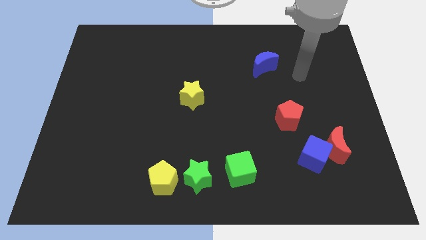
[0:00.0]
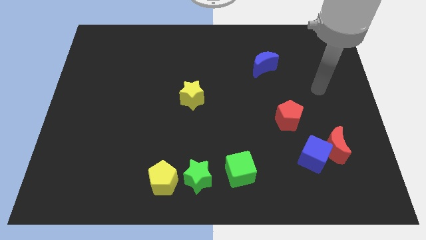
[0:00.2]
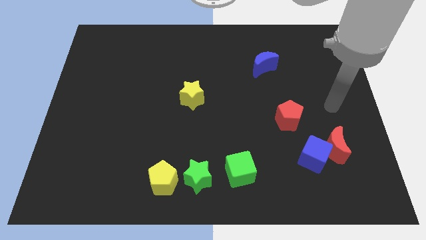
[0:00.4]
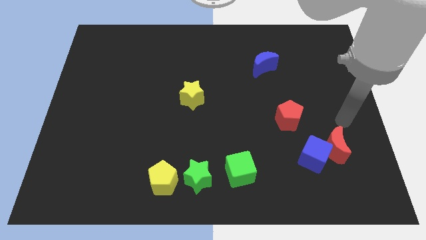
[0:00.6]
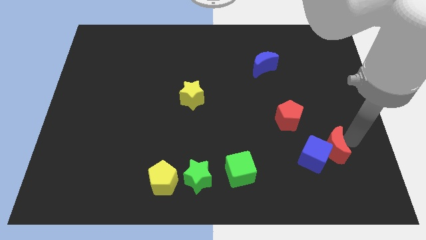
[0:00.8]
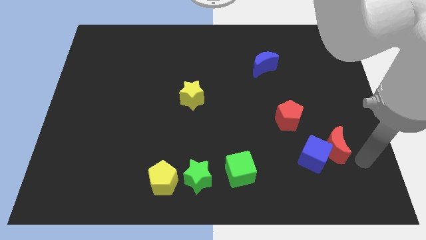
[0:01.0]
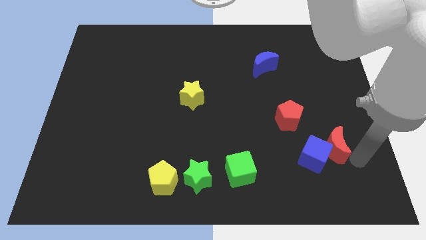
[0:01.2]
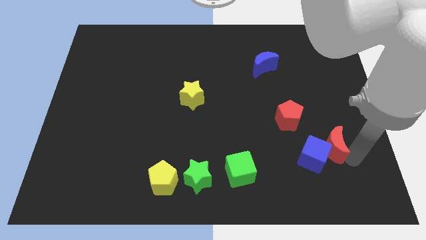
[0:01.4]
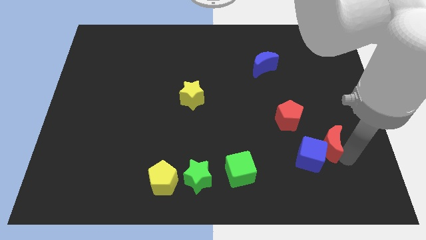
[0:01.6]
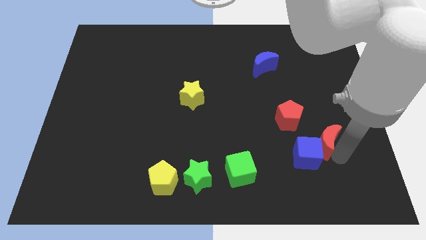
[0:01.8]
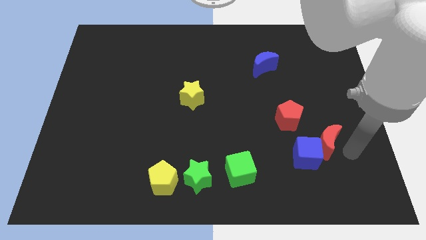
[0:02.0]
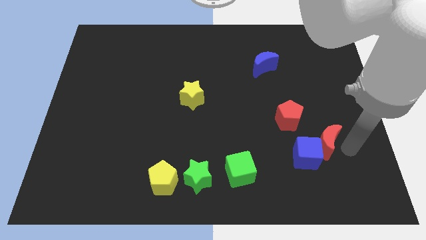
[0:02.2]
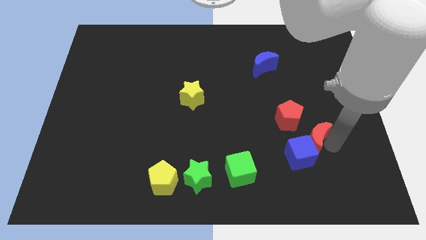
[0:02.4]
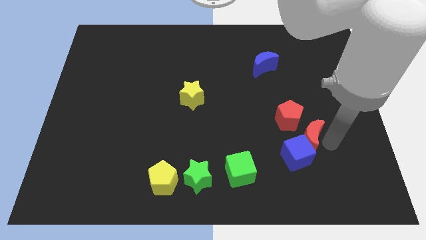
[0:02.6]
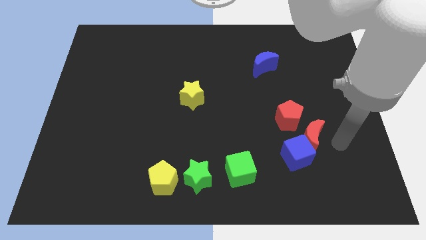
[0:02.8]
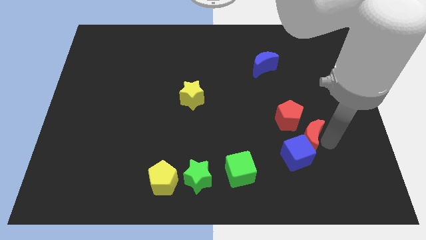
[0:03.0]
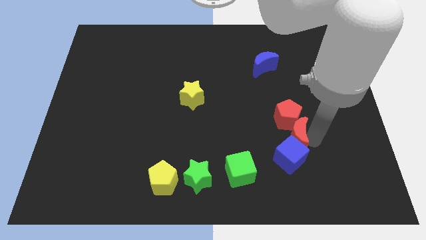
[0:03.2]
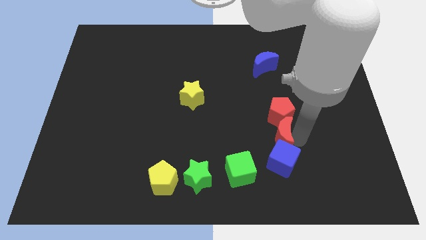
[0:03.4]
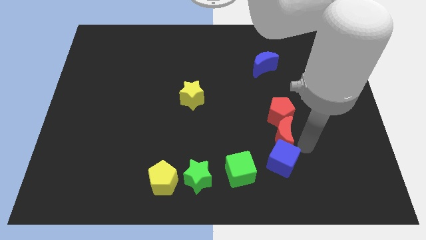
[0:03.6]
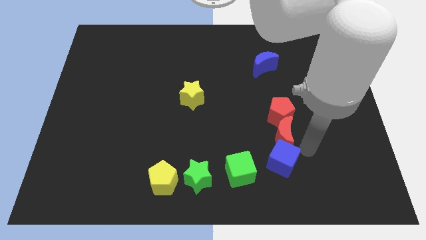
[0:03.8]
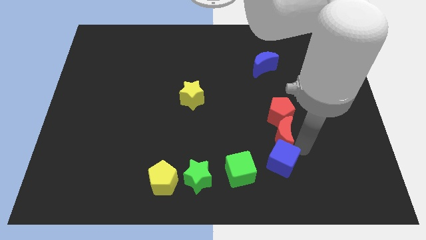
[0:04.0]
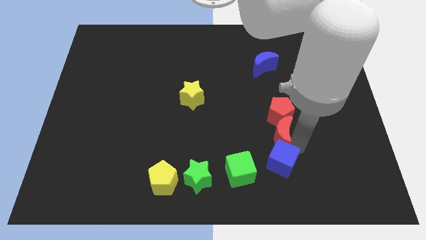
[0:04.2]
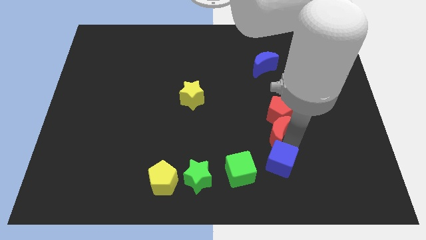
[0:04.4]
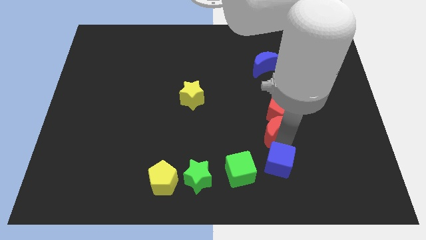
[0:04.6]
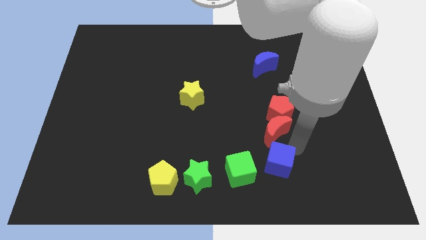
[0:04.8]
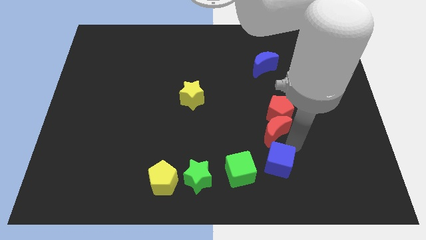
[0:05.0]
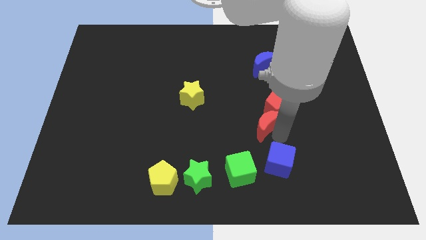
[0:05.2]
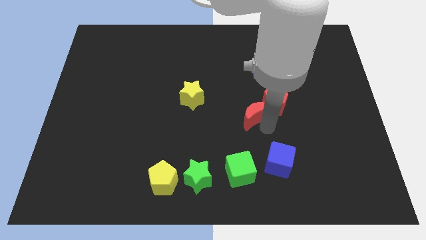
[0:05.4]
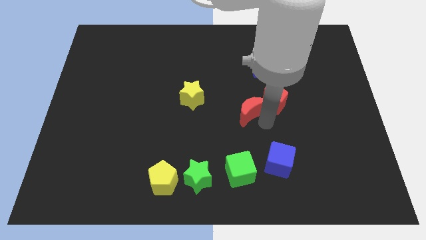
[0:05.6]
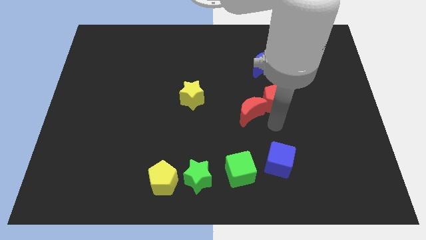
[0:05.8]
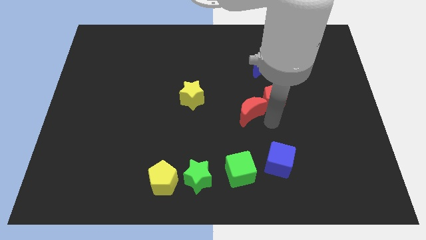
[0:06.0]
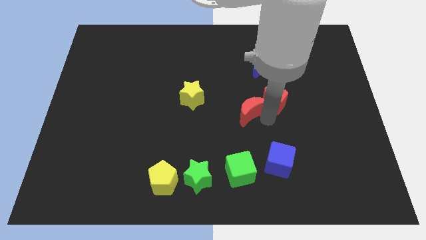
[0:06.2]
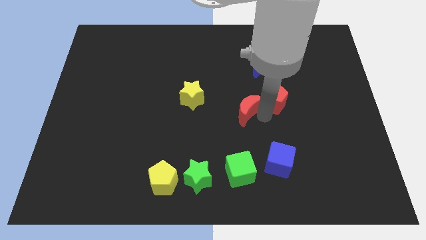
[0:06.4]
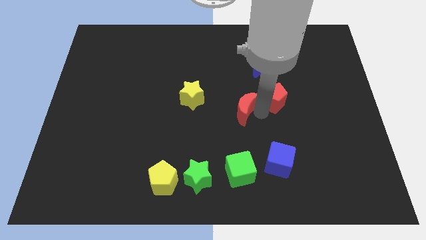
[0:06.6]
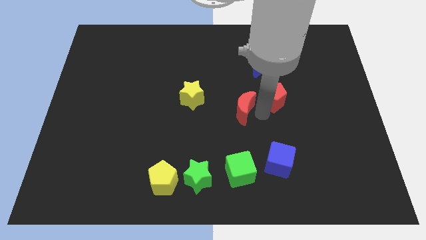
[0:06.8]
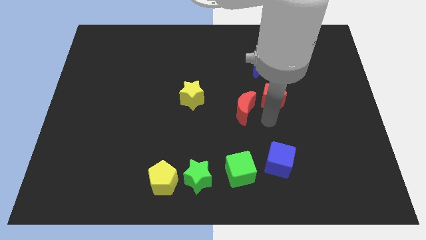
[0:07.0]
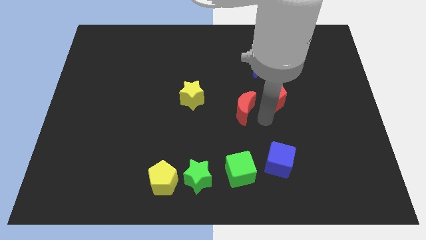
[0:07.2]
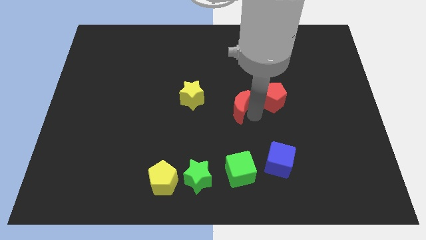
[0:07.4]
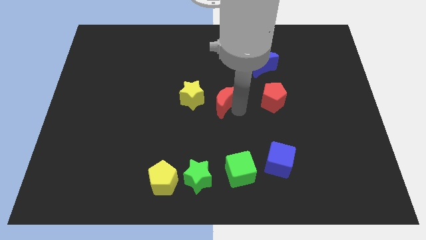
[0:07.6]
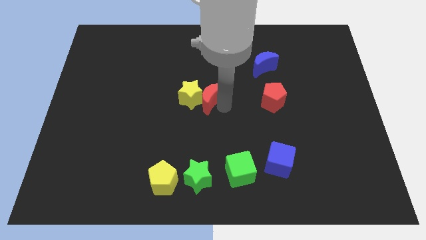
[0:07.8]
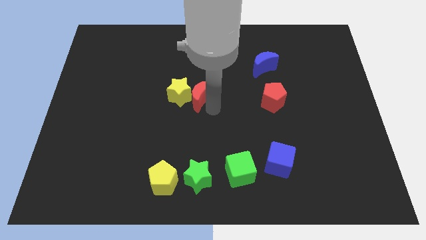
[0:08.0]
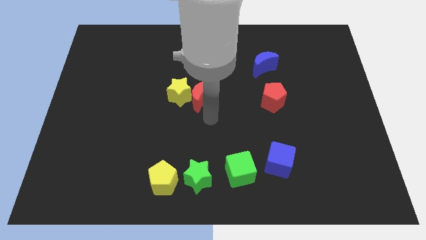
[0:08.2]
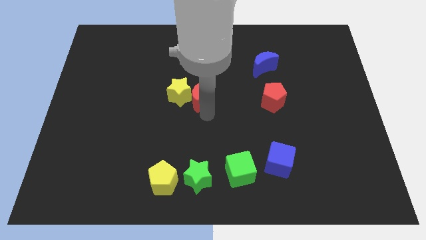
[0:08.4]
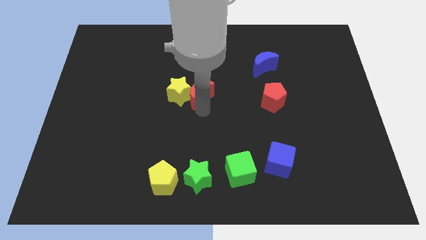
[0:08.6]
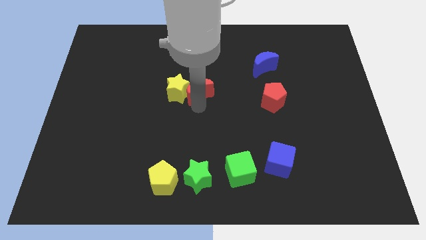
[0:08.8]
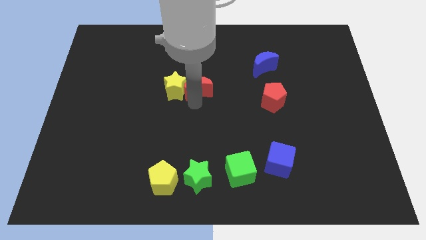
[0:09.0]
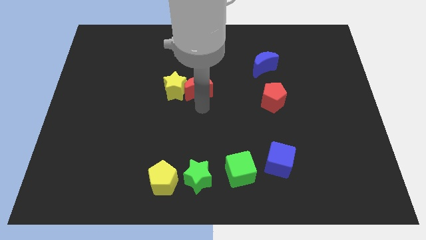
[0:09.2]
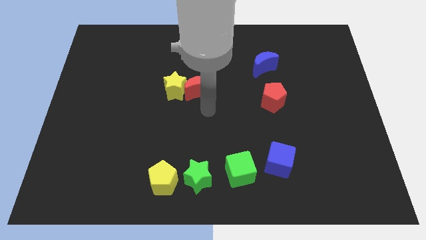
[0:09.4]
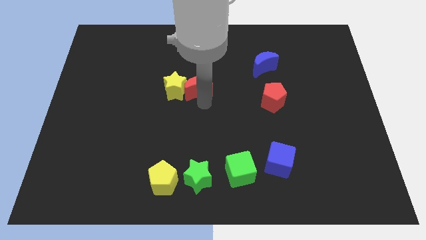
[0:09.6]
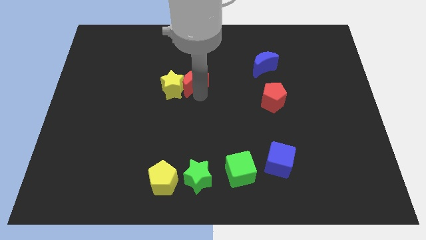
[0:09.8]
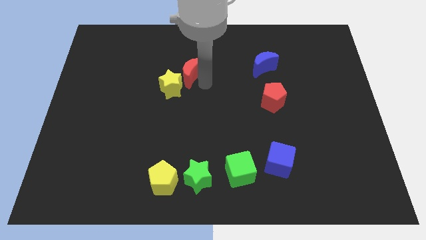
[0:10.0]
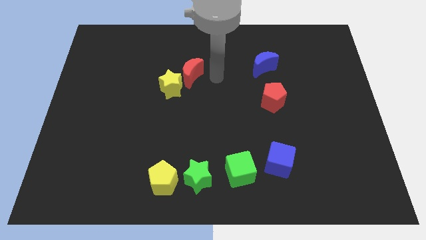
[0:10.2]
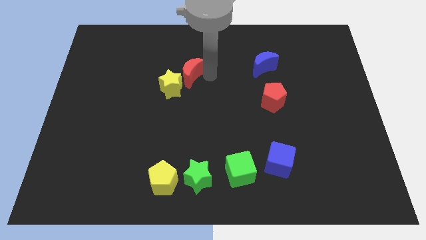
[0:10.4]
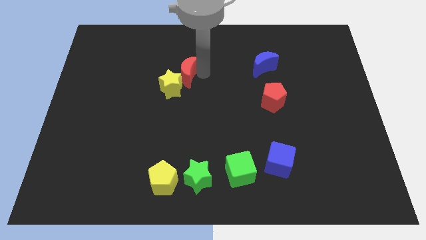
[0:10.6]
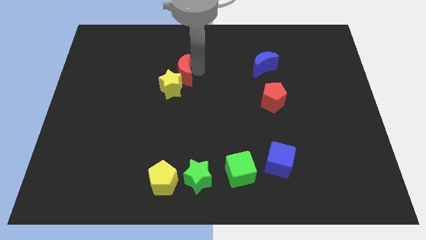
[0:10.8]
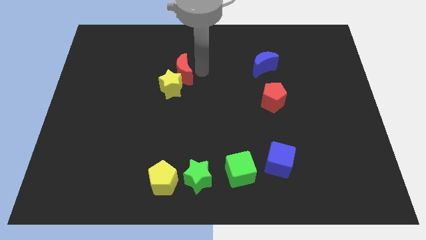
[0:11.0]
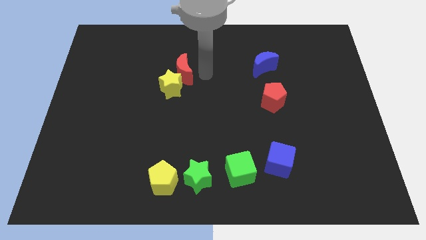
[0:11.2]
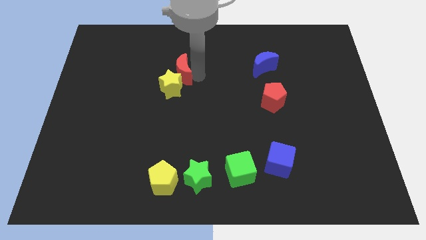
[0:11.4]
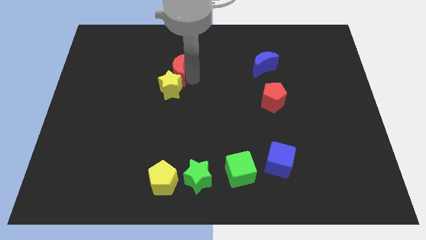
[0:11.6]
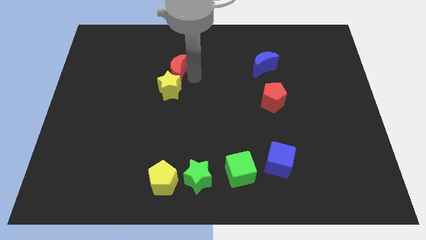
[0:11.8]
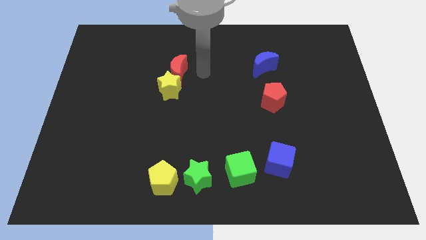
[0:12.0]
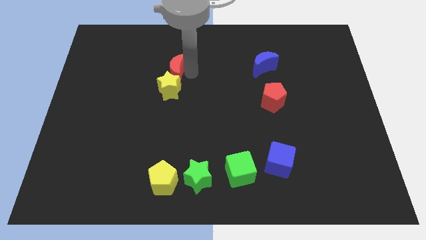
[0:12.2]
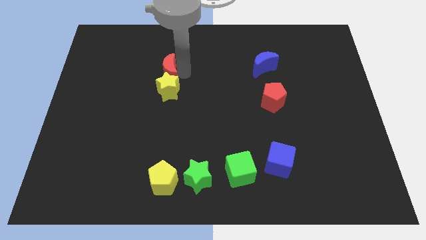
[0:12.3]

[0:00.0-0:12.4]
slide the red moon diagonally up and to the left of the yellow star

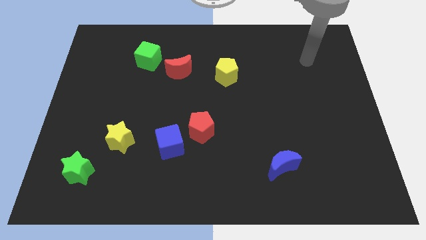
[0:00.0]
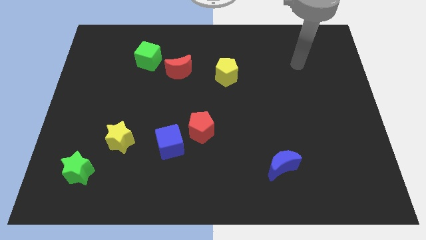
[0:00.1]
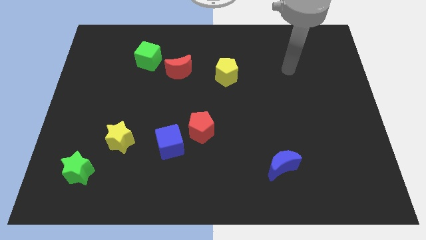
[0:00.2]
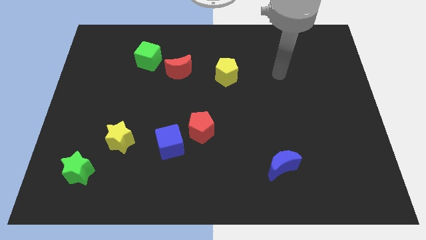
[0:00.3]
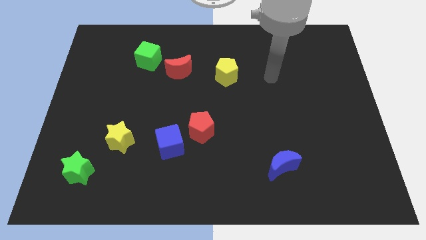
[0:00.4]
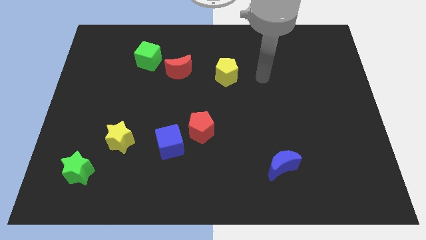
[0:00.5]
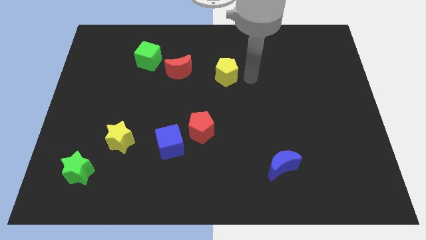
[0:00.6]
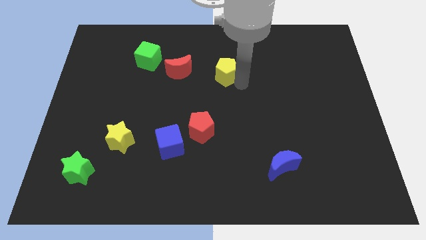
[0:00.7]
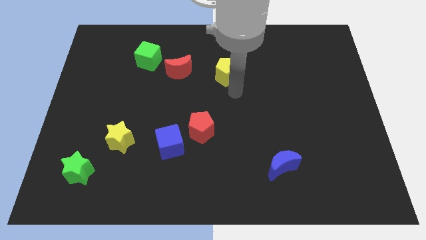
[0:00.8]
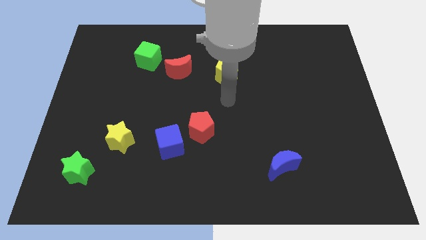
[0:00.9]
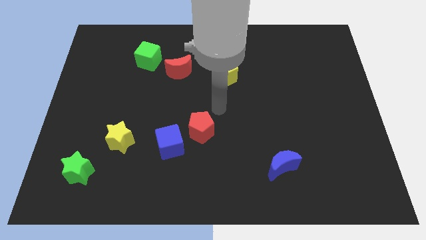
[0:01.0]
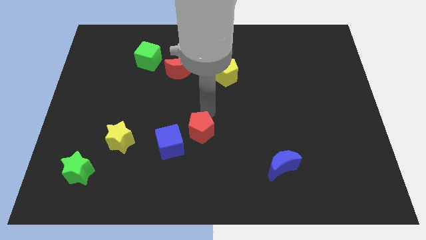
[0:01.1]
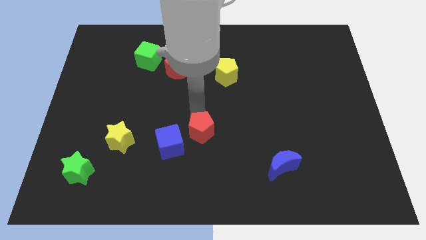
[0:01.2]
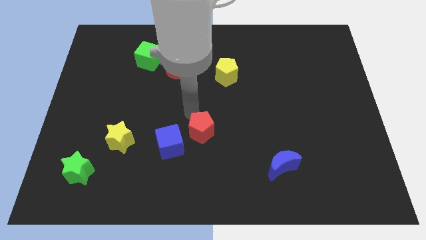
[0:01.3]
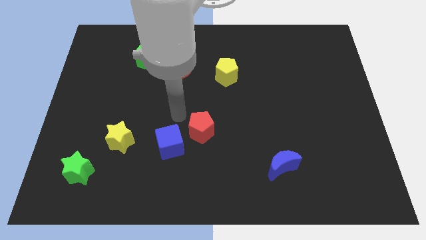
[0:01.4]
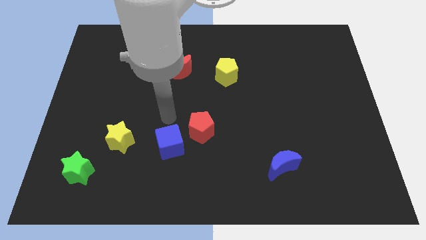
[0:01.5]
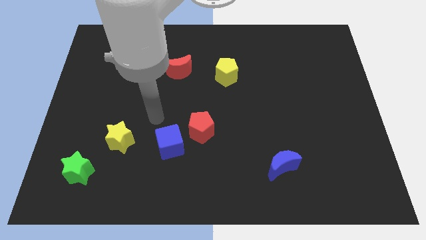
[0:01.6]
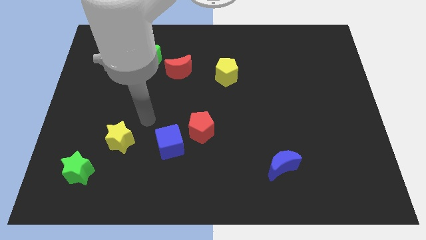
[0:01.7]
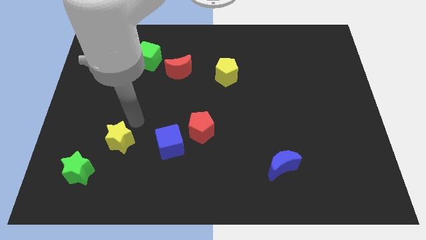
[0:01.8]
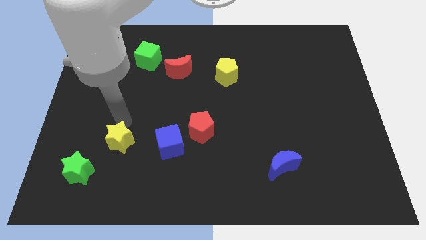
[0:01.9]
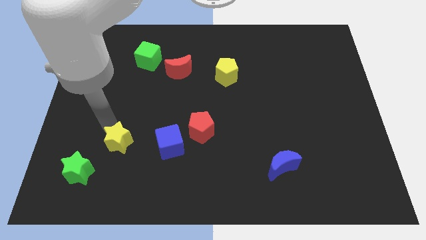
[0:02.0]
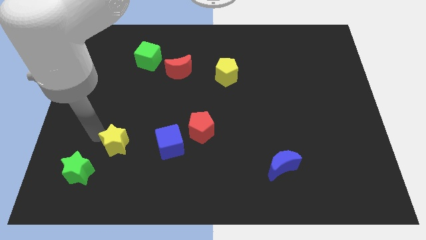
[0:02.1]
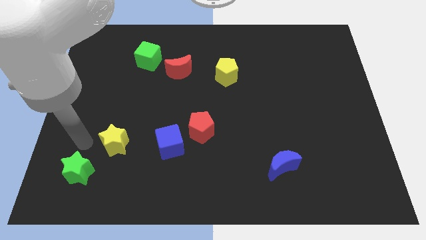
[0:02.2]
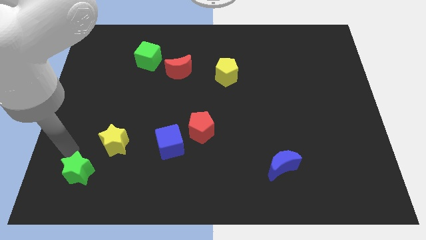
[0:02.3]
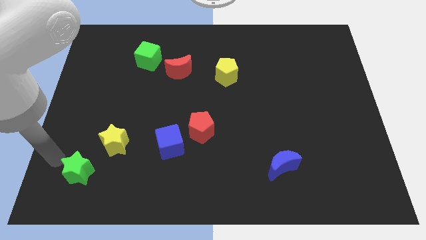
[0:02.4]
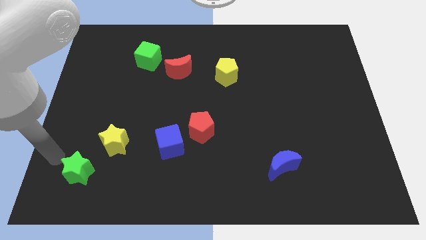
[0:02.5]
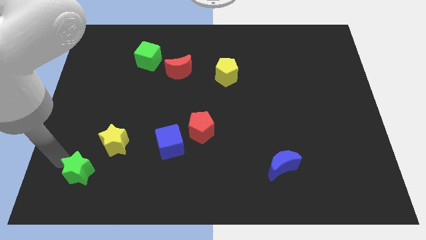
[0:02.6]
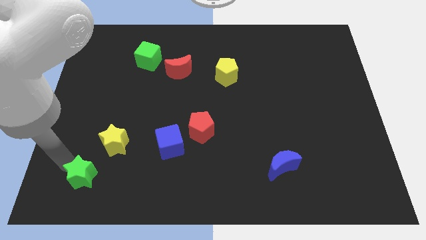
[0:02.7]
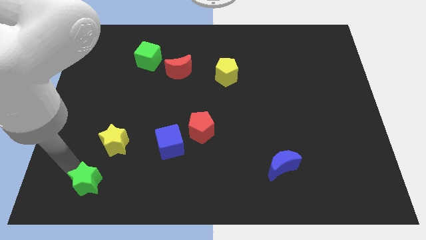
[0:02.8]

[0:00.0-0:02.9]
put the green star to the bottom side of the yellow star
